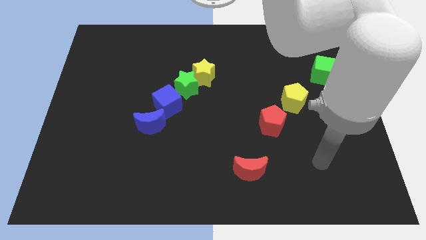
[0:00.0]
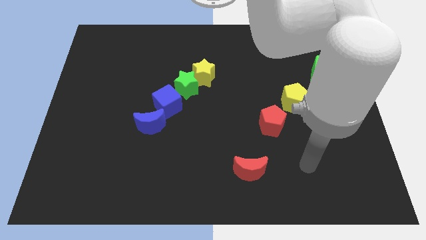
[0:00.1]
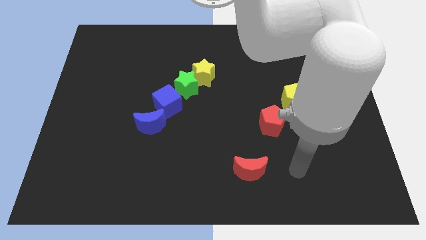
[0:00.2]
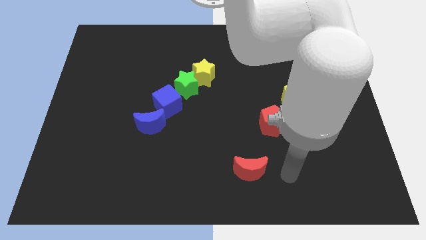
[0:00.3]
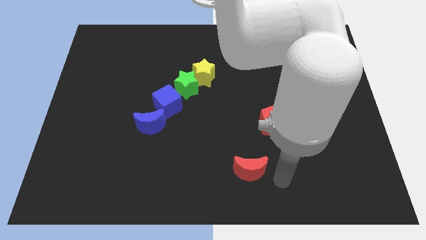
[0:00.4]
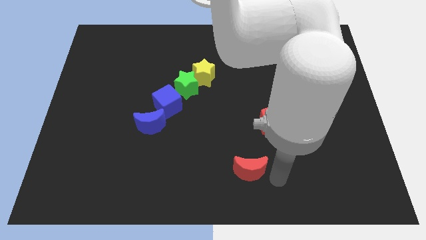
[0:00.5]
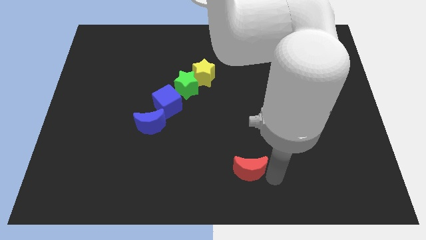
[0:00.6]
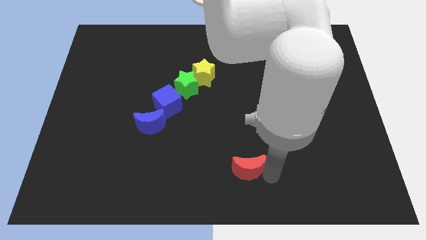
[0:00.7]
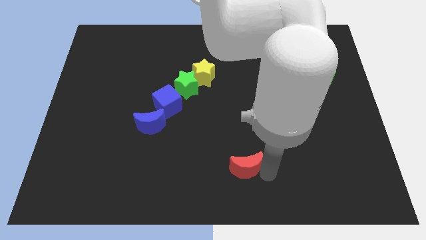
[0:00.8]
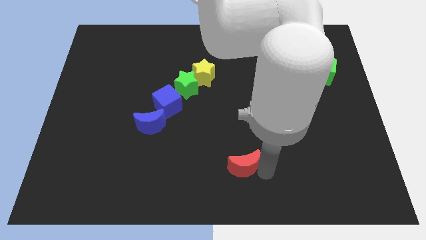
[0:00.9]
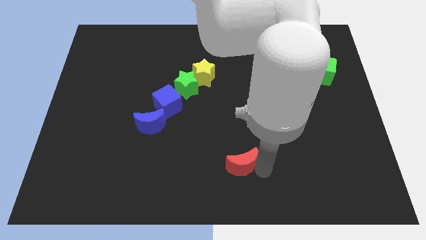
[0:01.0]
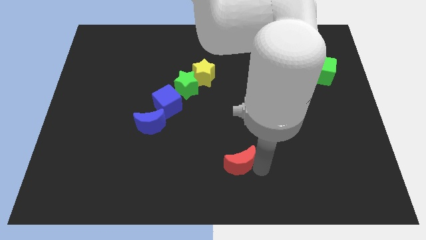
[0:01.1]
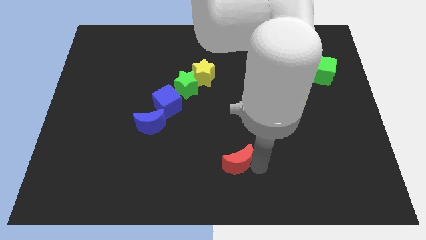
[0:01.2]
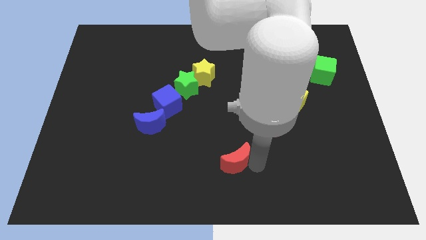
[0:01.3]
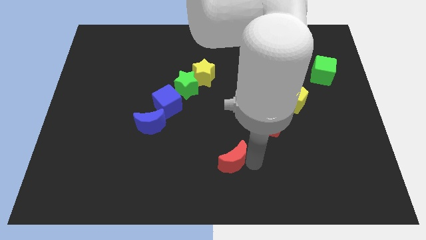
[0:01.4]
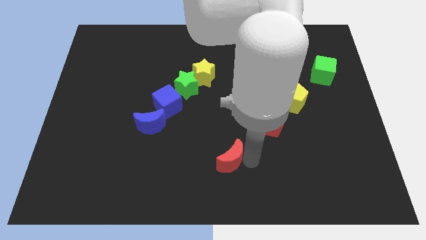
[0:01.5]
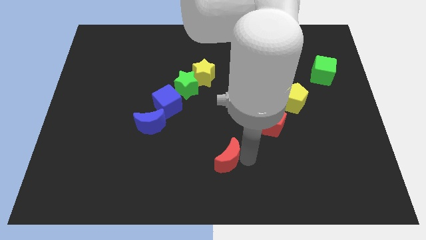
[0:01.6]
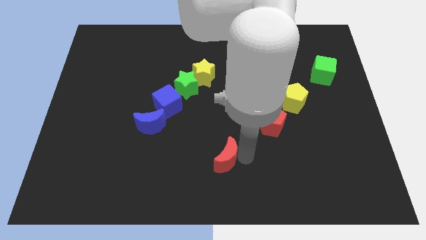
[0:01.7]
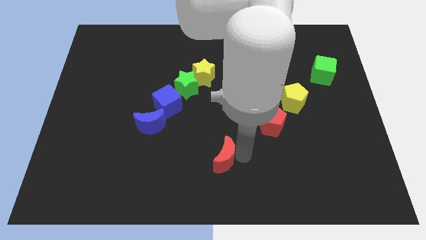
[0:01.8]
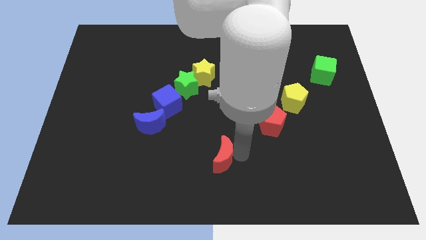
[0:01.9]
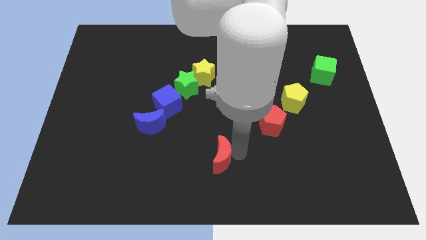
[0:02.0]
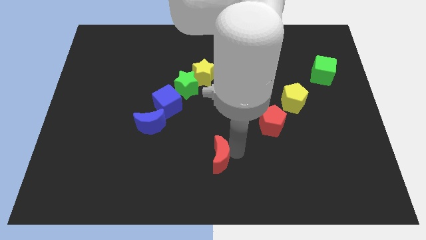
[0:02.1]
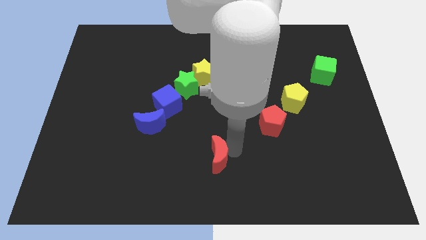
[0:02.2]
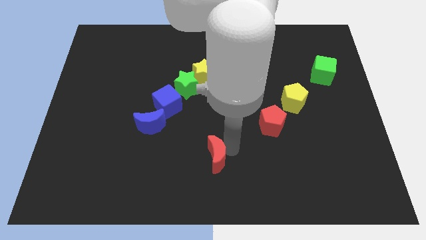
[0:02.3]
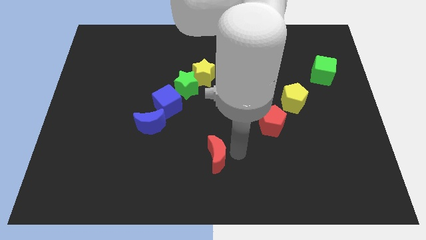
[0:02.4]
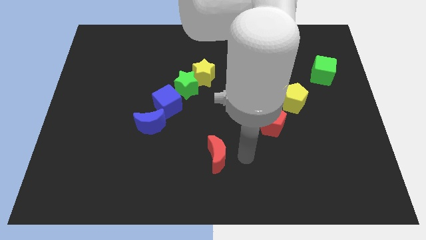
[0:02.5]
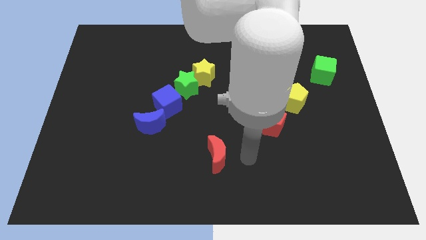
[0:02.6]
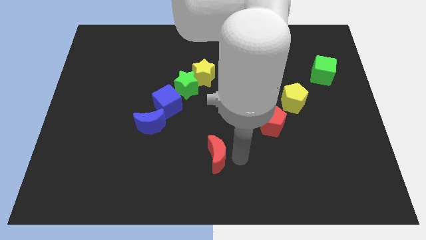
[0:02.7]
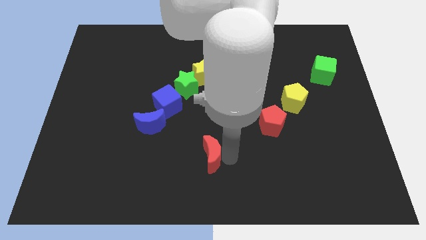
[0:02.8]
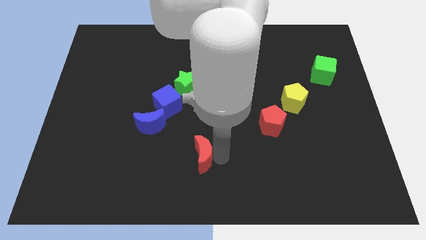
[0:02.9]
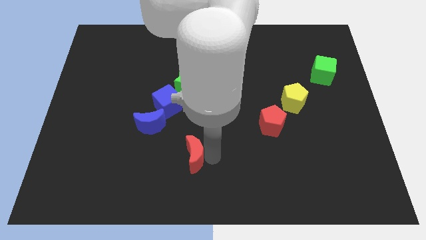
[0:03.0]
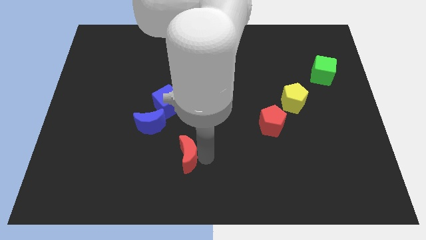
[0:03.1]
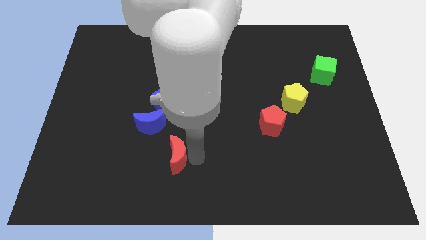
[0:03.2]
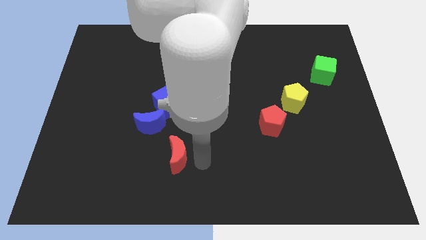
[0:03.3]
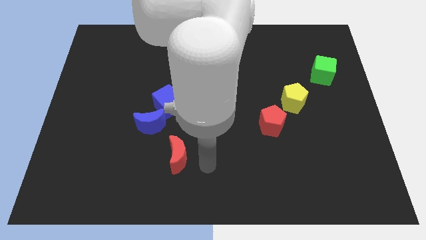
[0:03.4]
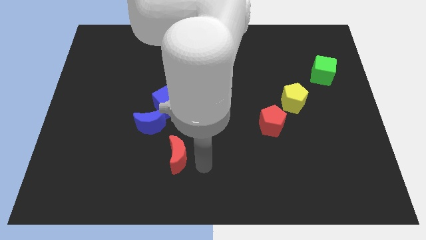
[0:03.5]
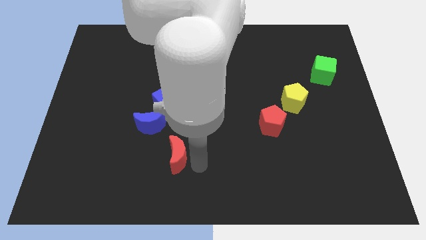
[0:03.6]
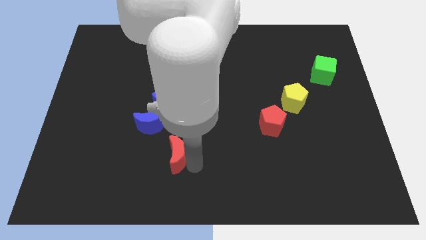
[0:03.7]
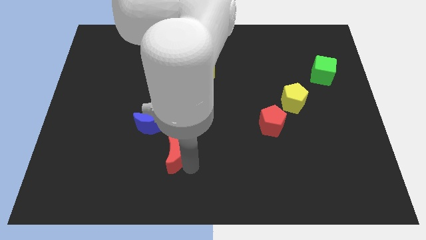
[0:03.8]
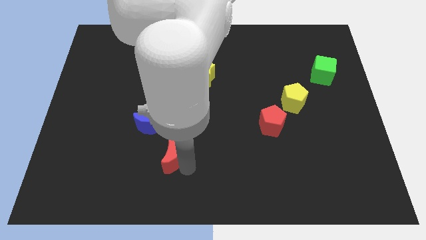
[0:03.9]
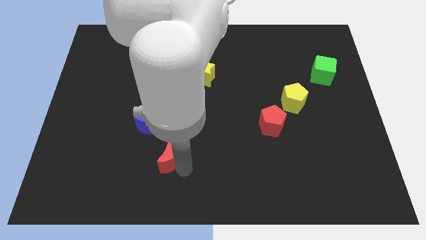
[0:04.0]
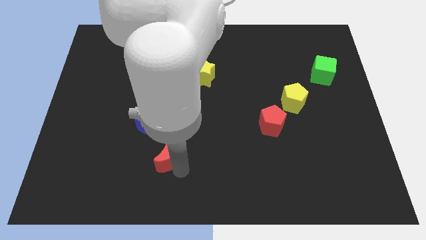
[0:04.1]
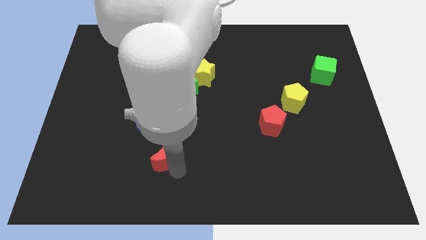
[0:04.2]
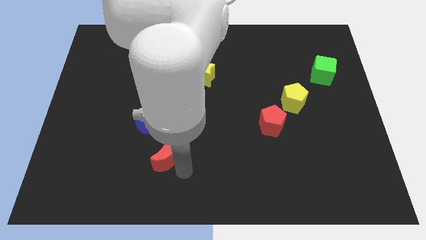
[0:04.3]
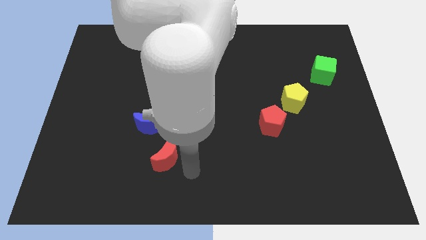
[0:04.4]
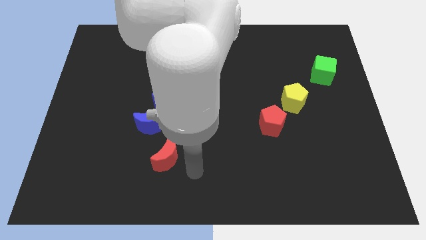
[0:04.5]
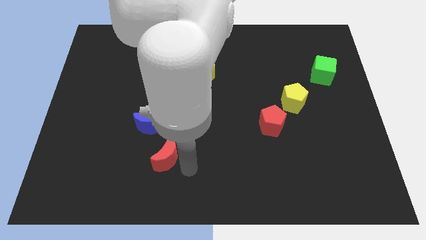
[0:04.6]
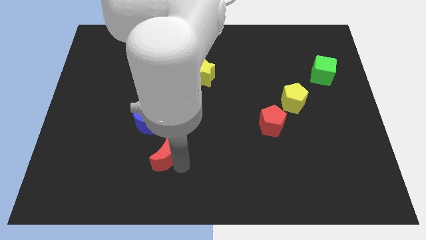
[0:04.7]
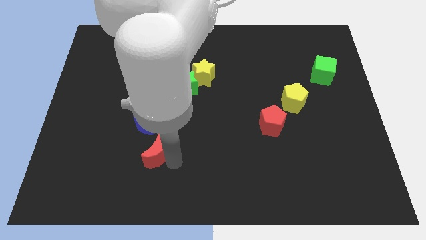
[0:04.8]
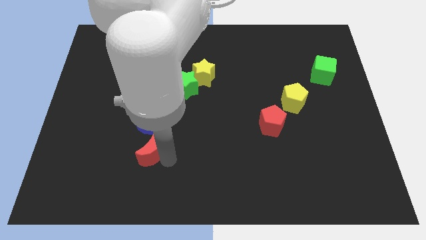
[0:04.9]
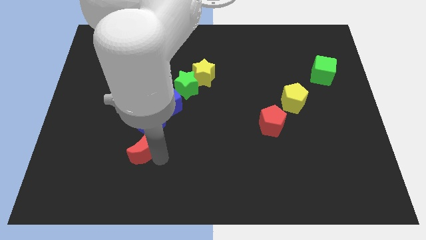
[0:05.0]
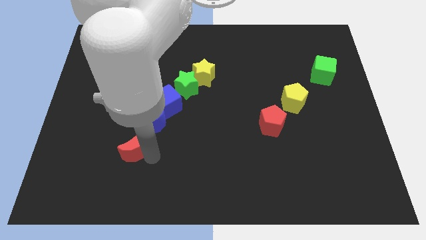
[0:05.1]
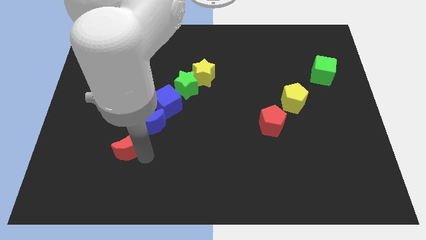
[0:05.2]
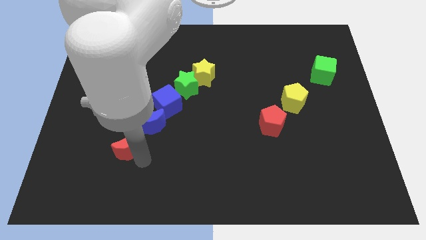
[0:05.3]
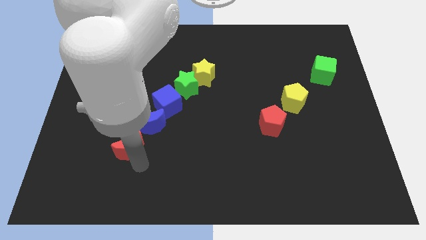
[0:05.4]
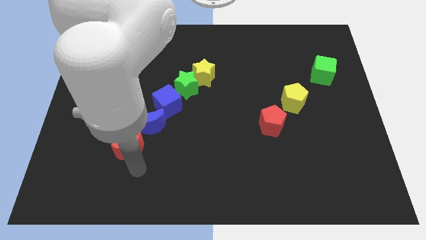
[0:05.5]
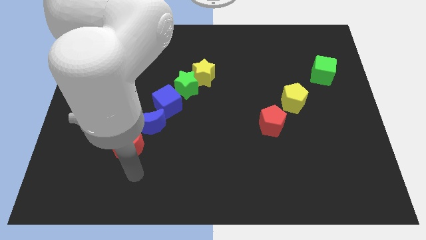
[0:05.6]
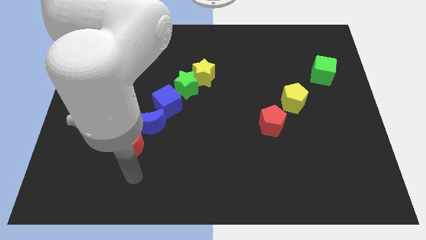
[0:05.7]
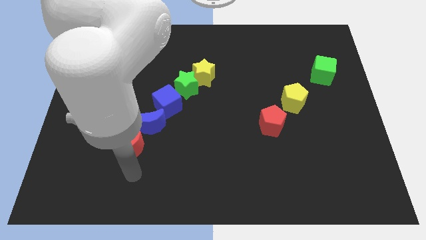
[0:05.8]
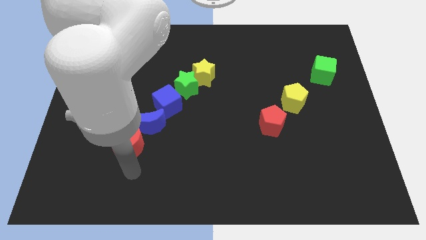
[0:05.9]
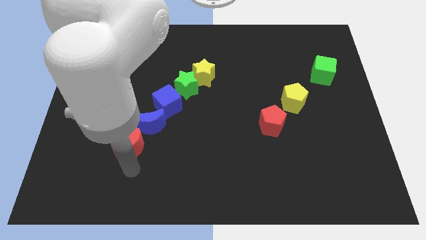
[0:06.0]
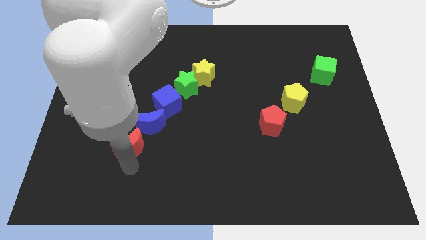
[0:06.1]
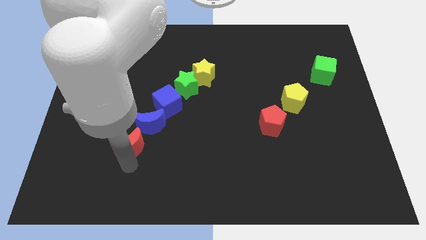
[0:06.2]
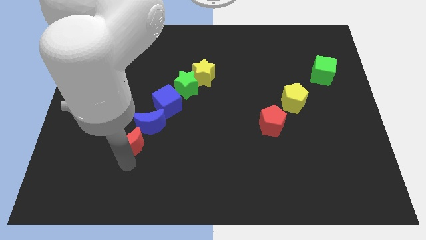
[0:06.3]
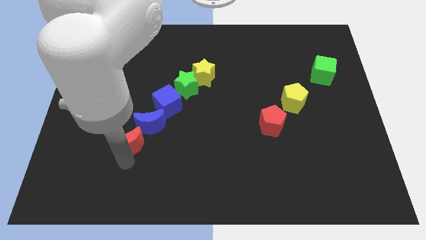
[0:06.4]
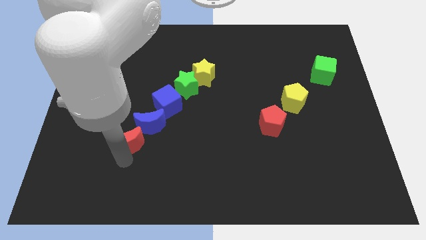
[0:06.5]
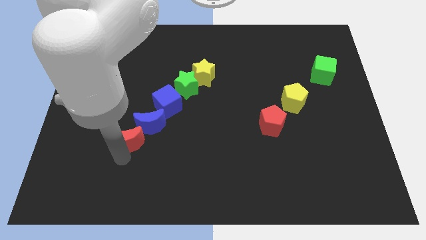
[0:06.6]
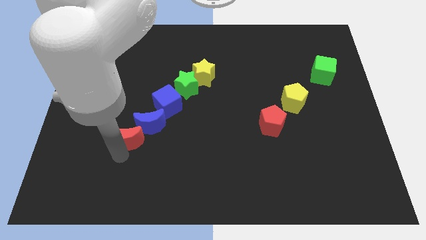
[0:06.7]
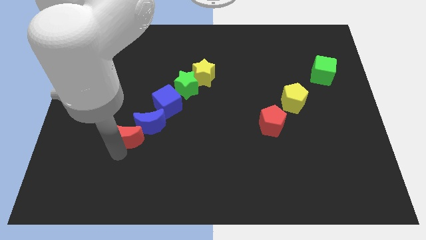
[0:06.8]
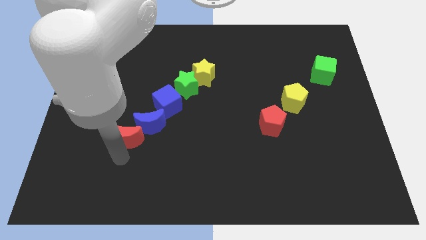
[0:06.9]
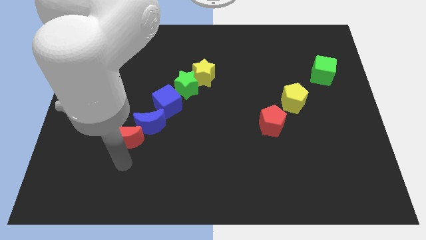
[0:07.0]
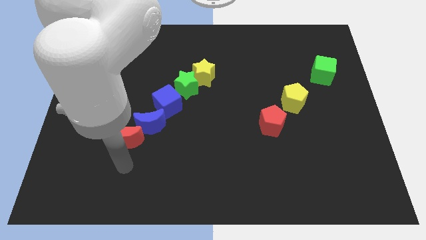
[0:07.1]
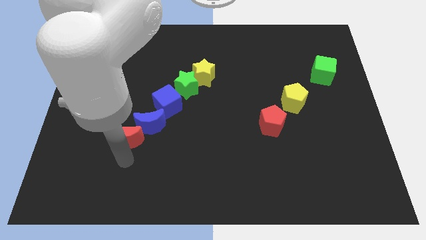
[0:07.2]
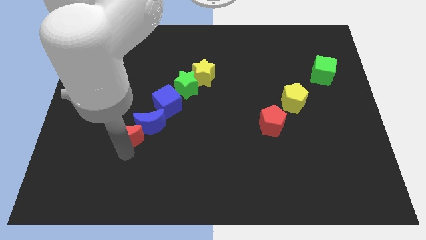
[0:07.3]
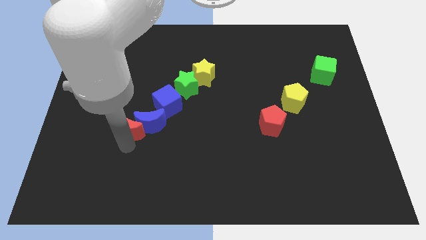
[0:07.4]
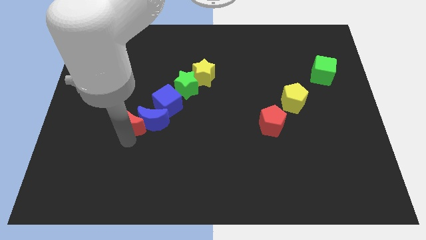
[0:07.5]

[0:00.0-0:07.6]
slide the red moon up and to the left diagonally

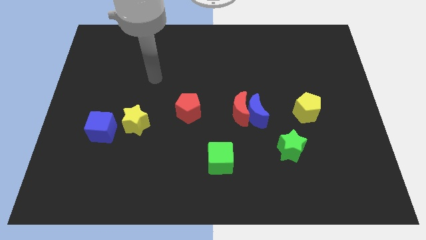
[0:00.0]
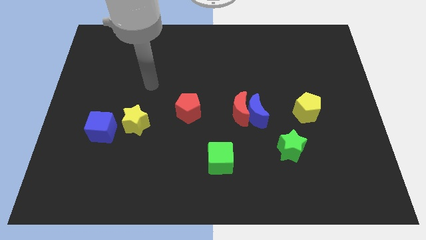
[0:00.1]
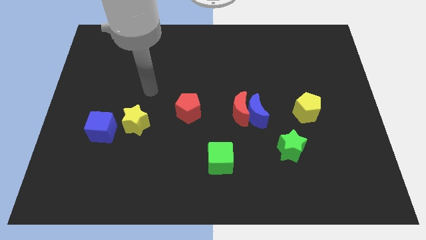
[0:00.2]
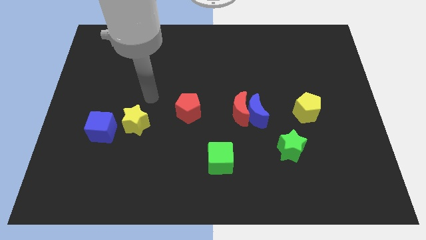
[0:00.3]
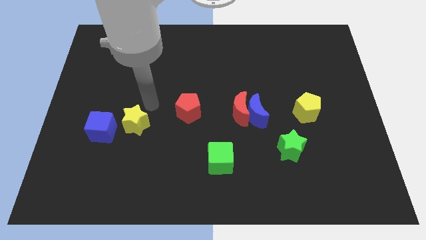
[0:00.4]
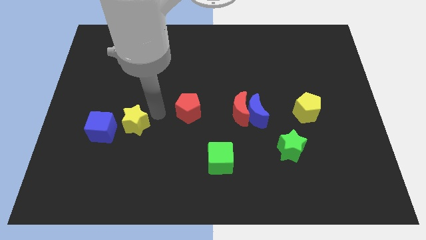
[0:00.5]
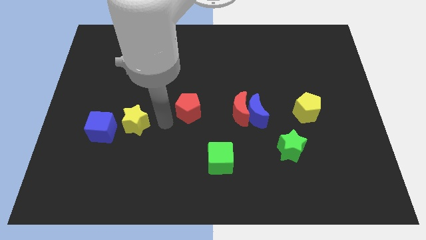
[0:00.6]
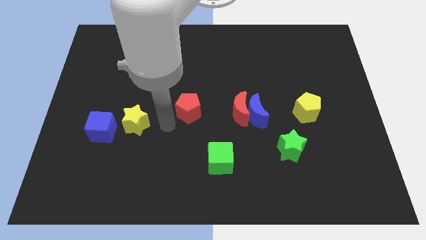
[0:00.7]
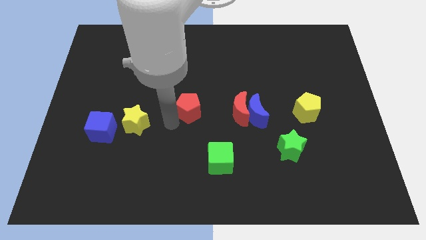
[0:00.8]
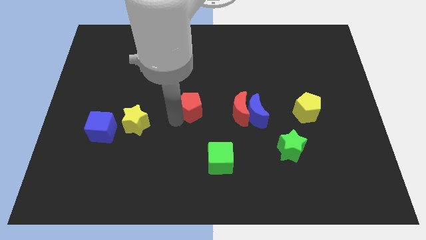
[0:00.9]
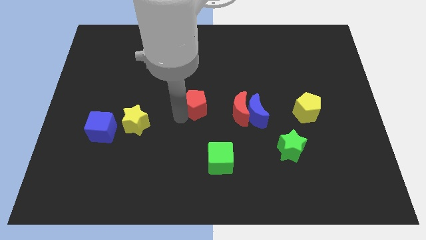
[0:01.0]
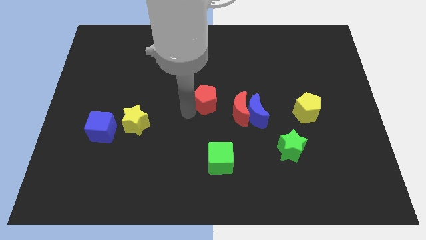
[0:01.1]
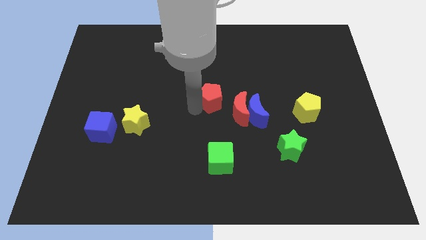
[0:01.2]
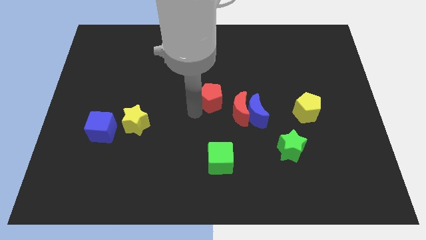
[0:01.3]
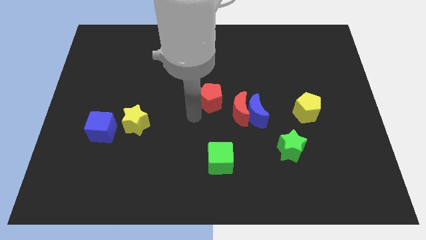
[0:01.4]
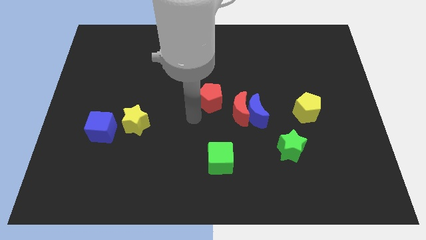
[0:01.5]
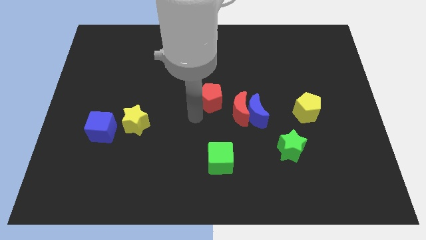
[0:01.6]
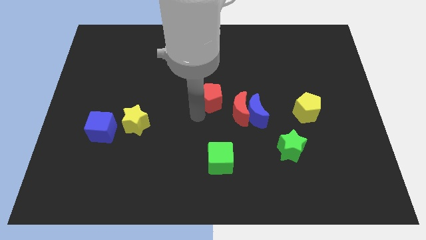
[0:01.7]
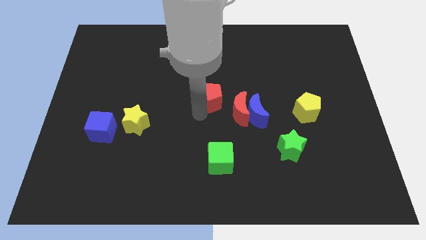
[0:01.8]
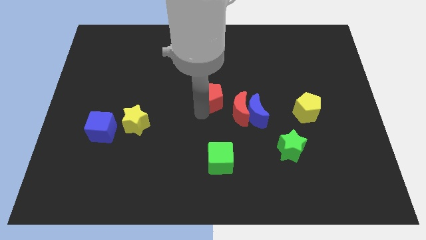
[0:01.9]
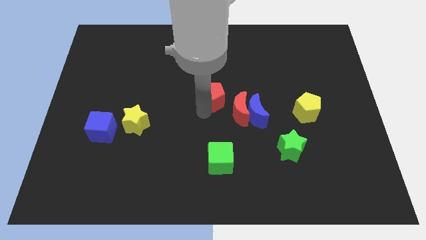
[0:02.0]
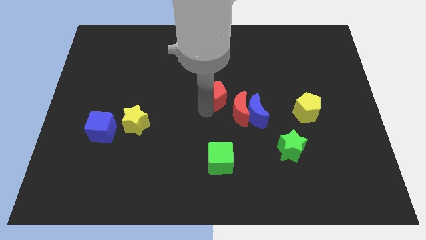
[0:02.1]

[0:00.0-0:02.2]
push the red pentagon diagonally upwards and right slightly
